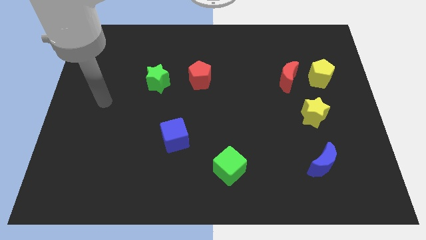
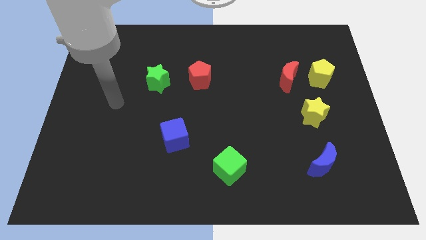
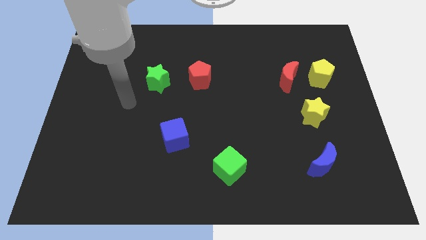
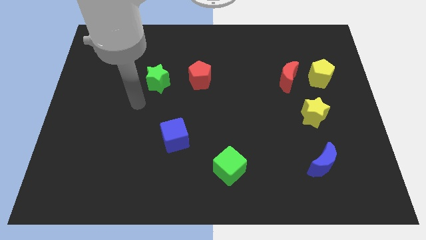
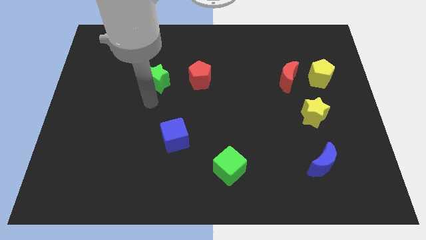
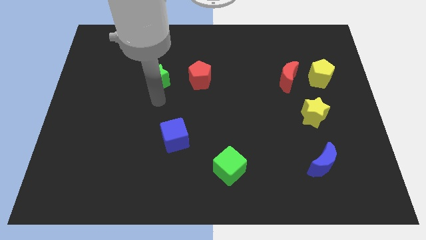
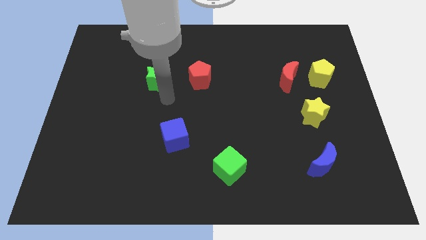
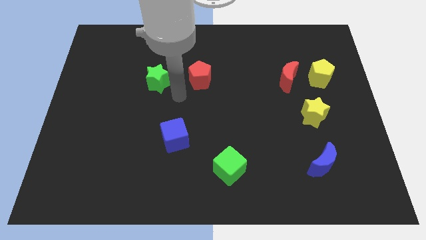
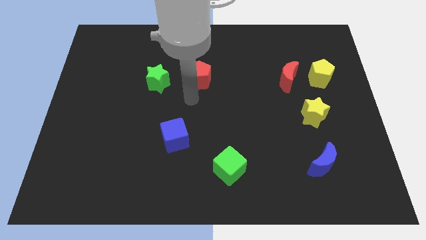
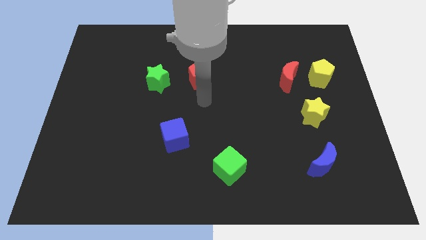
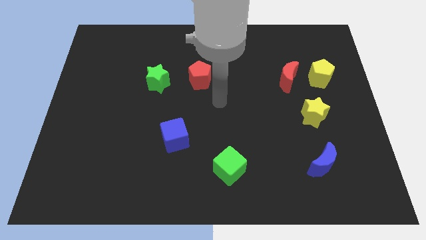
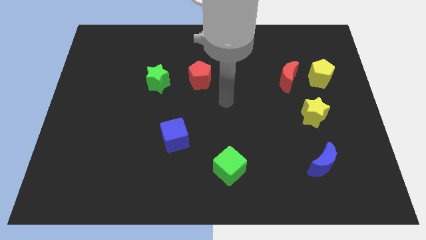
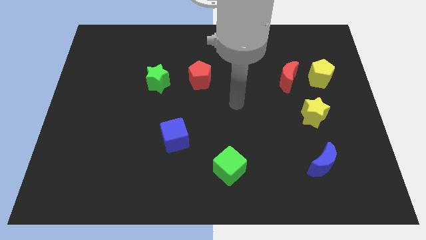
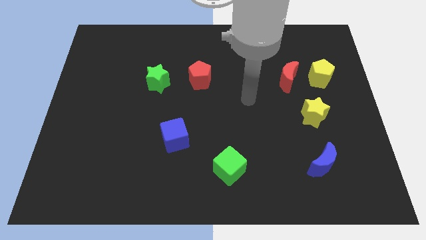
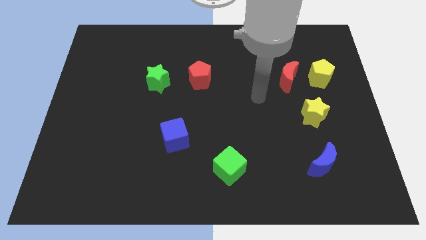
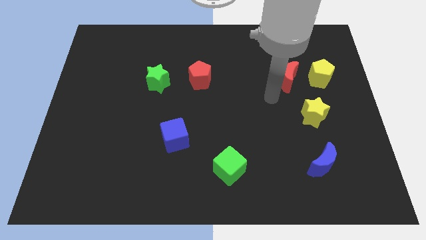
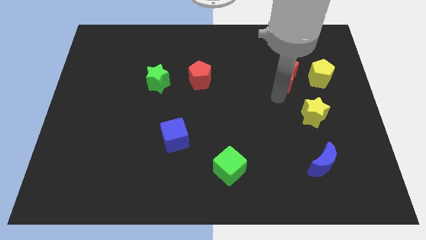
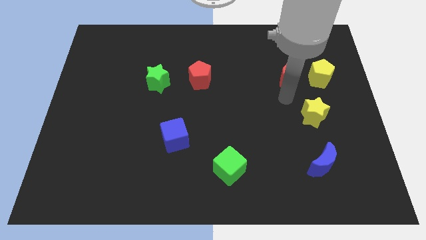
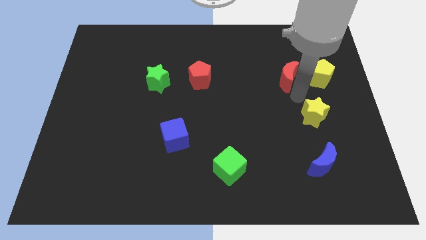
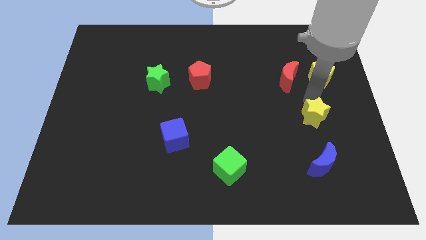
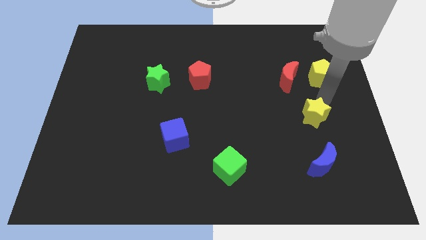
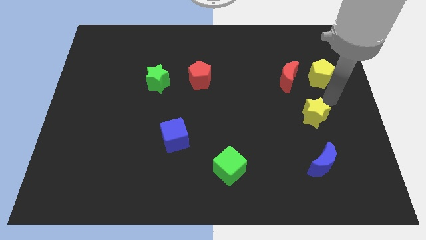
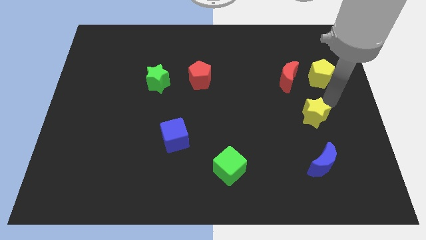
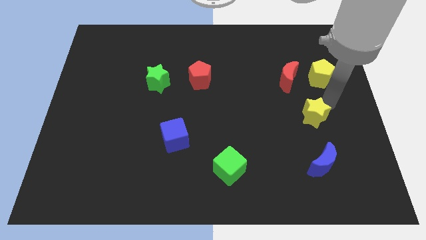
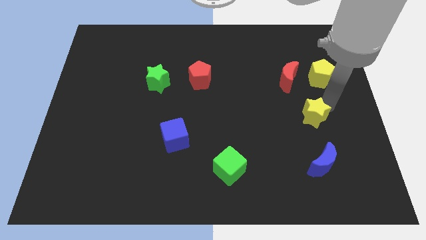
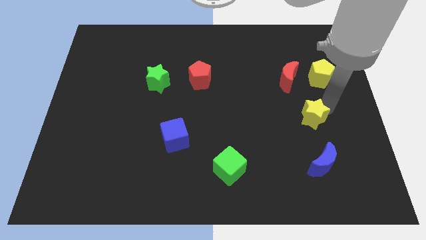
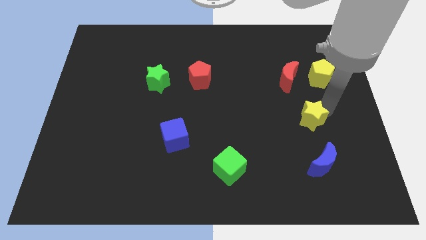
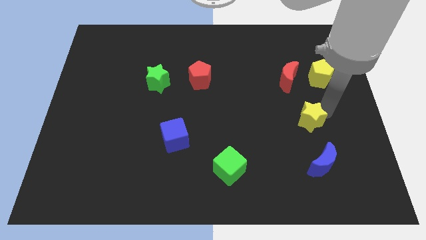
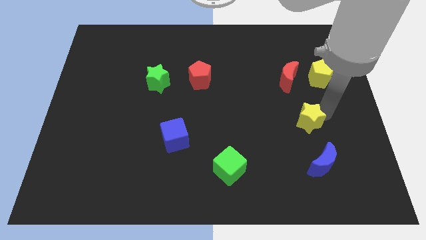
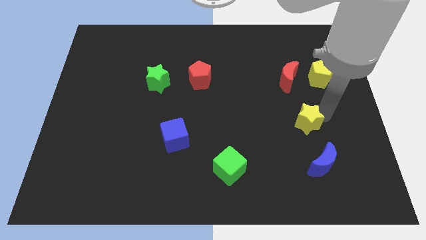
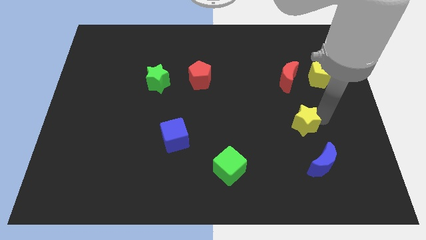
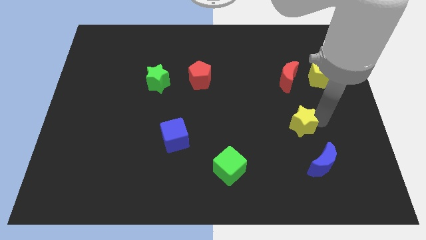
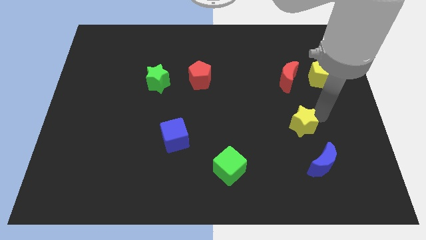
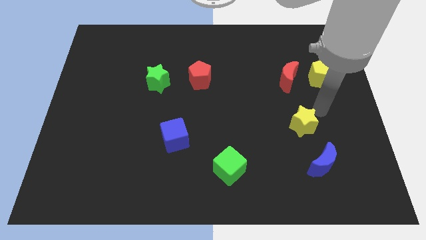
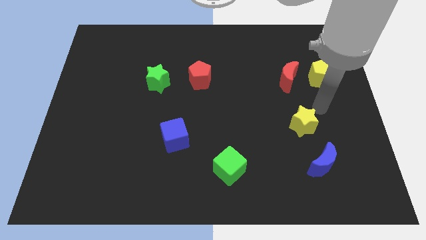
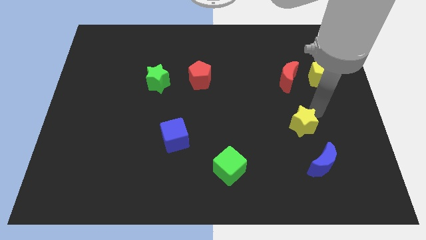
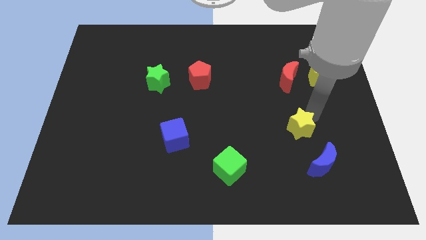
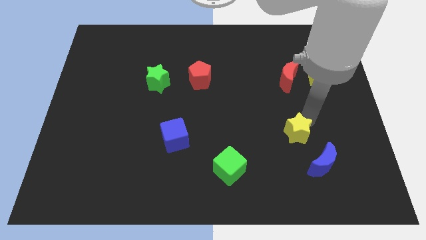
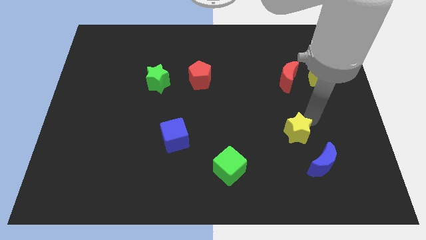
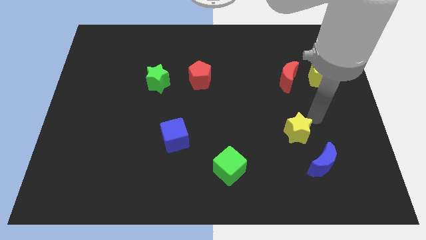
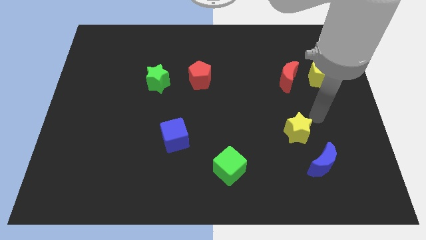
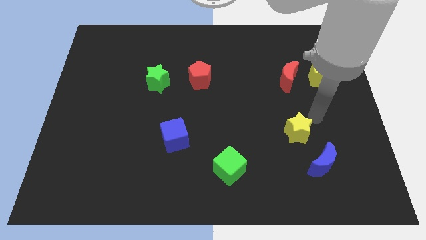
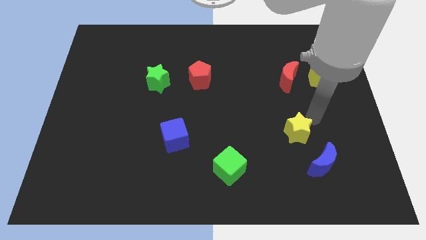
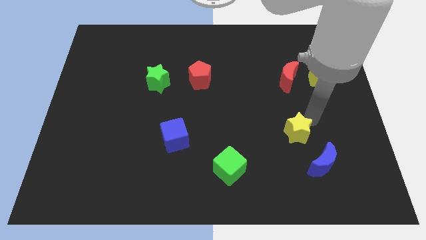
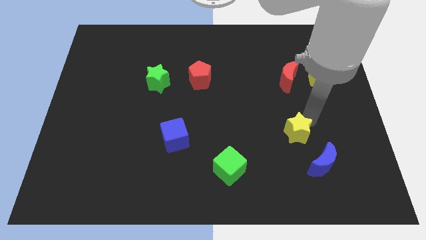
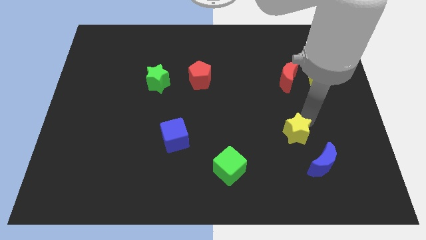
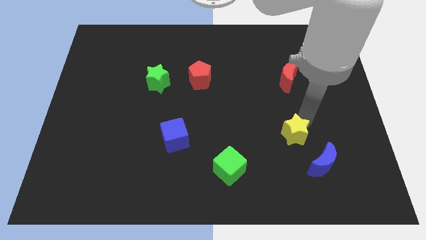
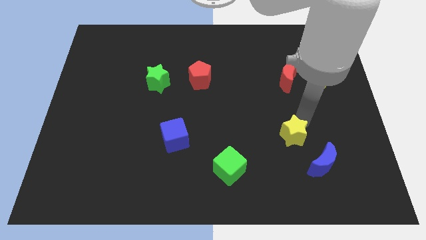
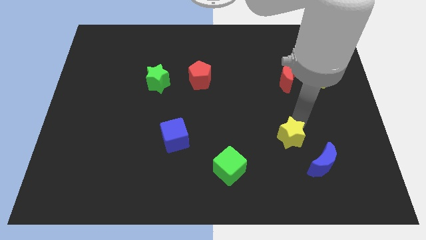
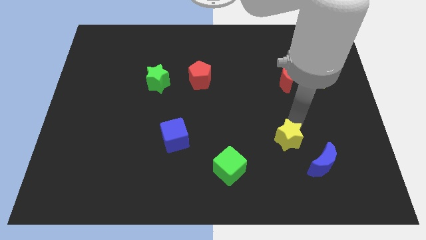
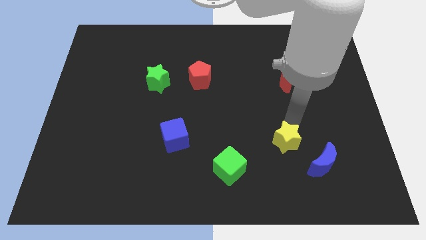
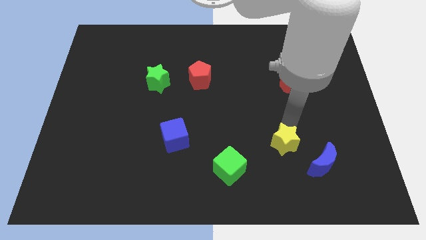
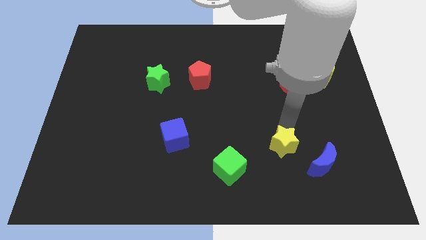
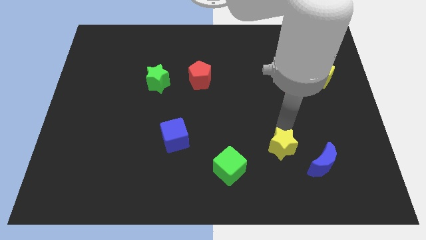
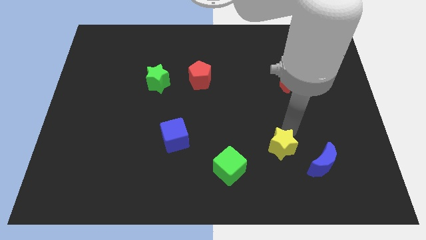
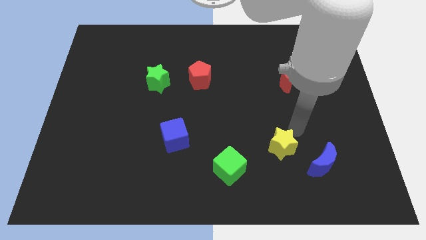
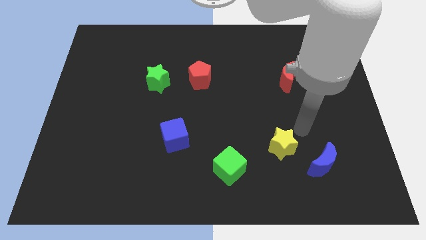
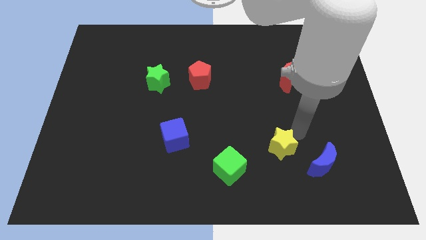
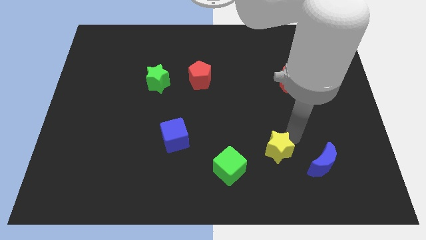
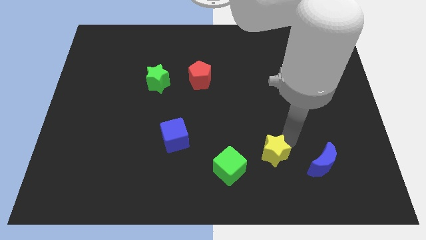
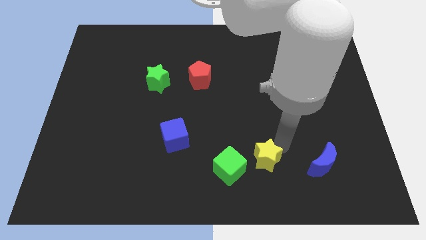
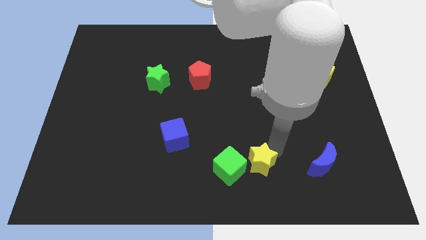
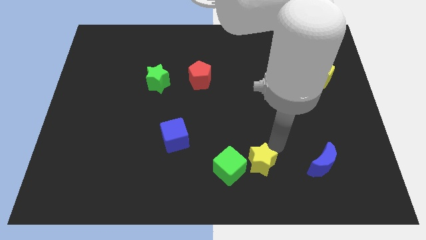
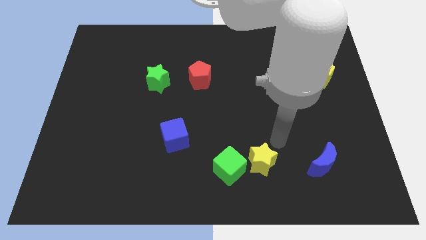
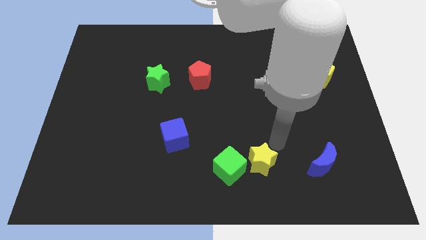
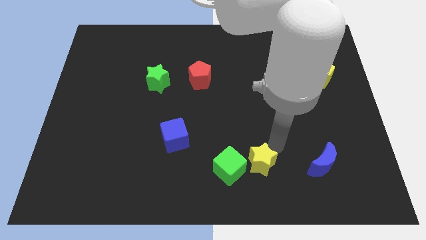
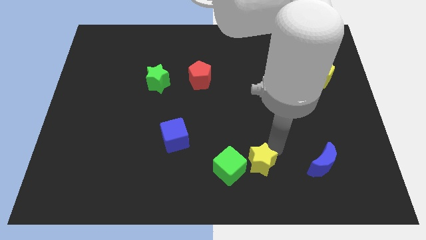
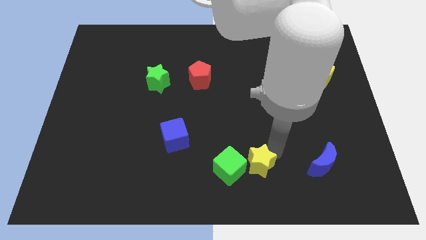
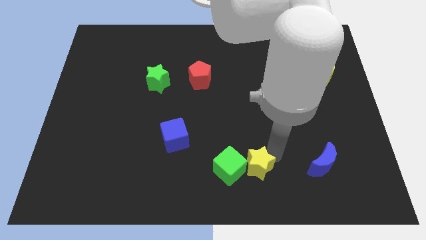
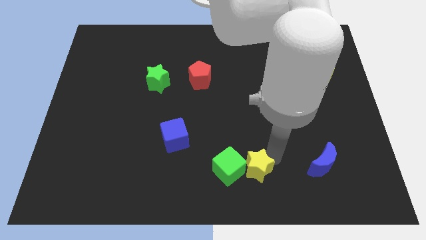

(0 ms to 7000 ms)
push the yellow star to the bottom side

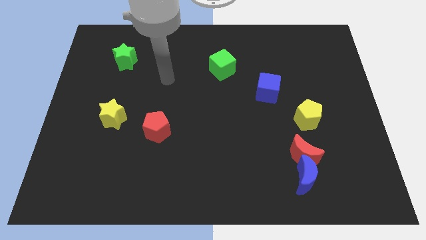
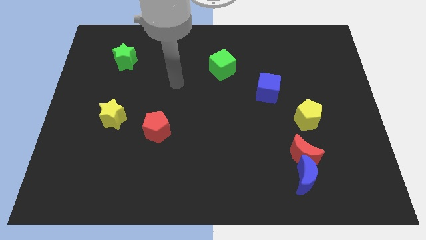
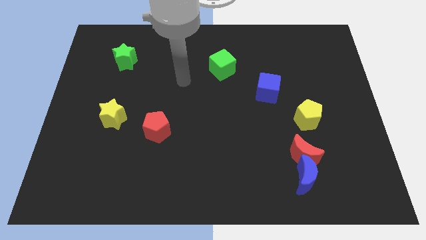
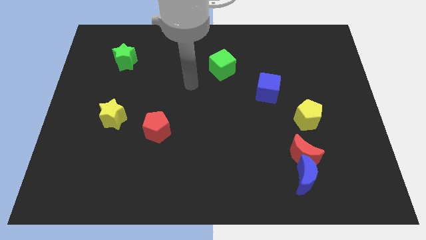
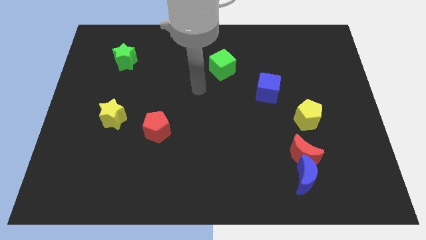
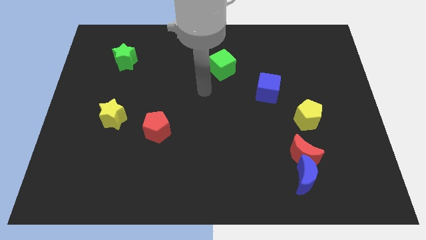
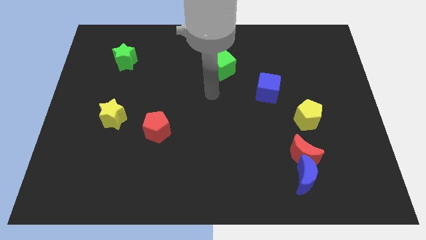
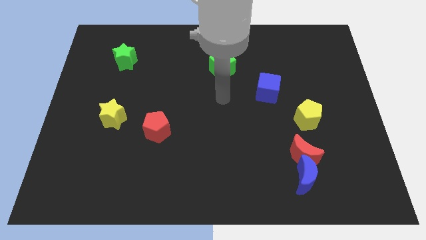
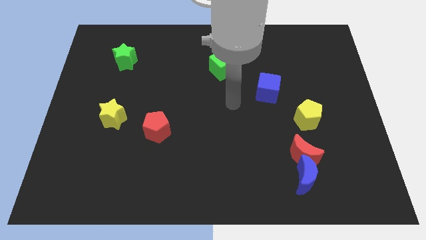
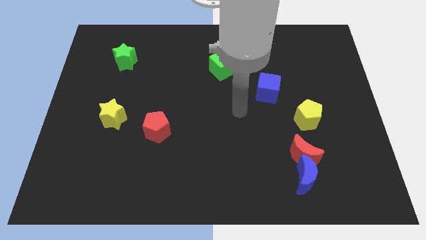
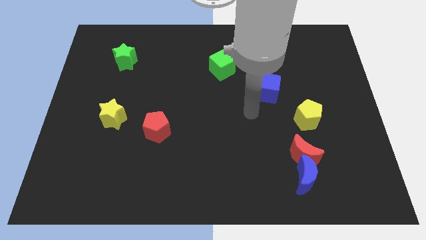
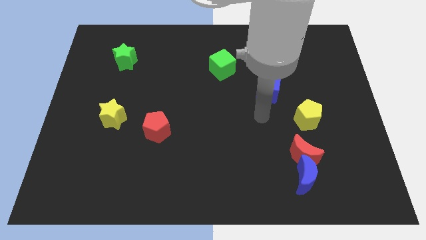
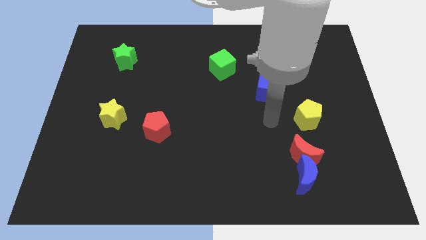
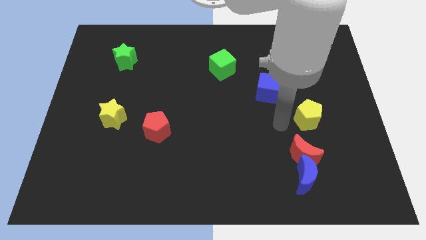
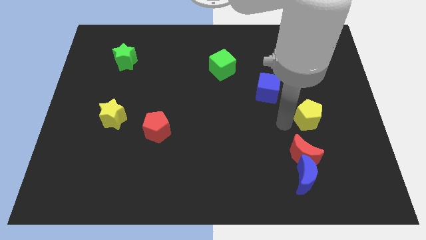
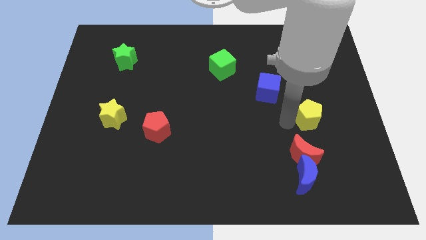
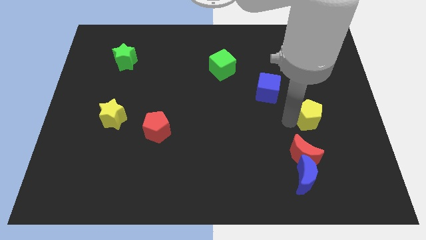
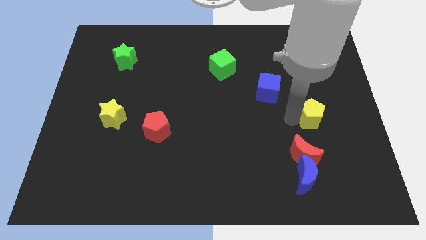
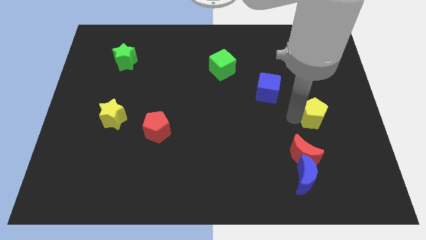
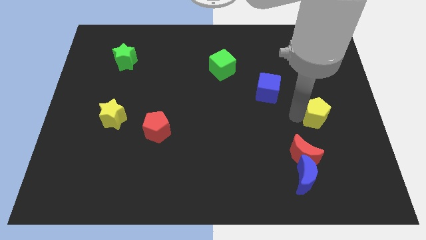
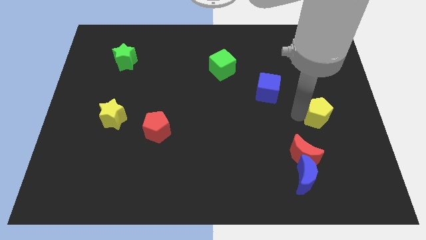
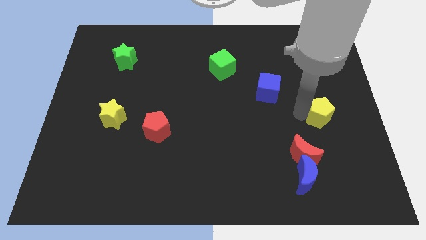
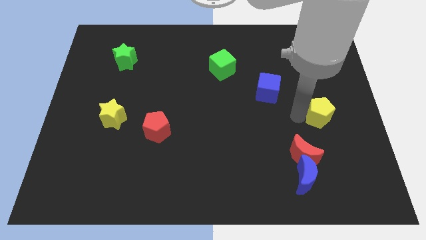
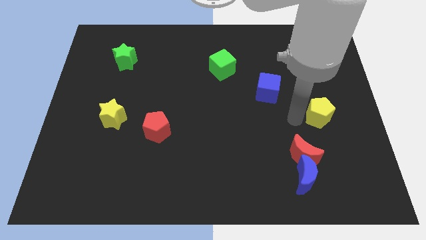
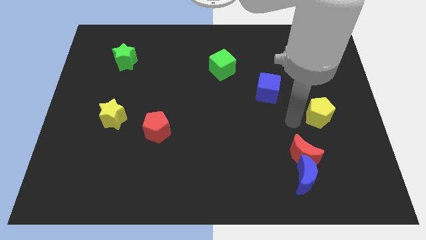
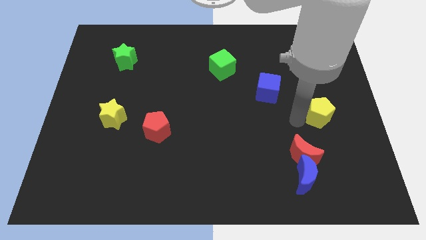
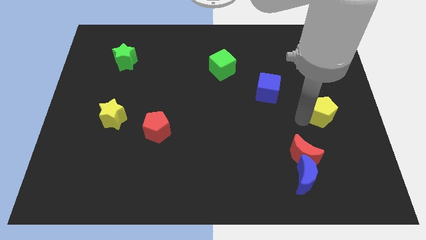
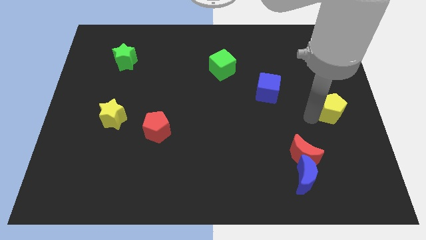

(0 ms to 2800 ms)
push the yellow pentagon to the center right
